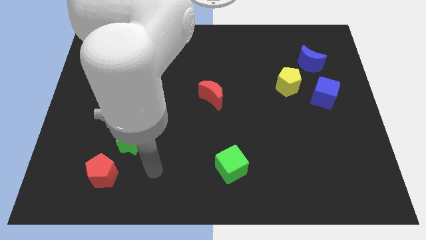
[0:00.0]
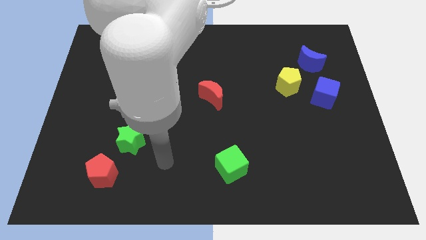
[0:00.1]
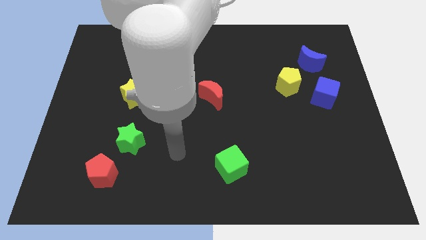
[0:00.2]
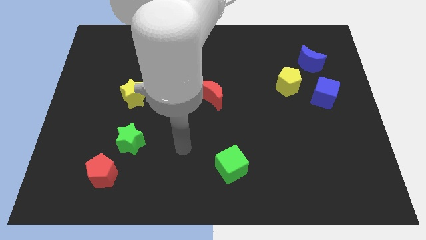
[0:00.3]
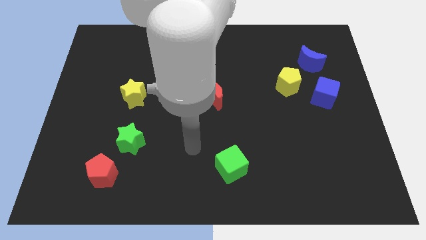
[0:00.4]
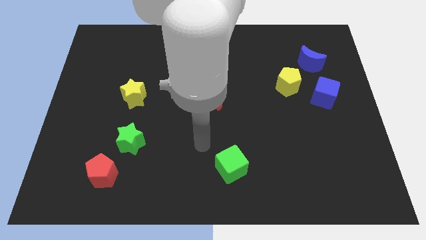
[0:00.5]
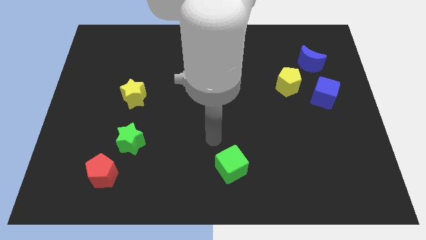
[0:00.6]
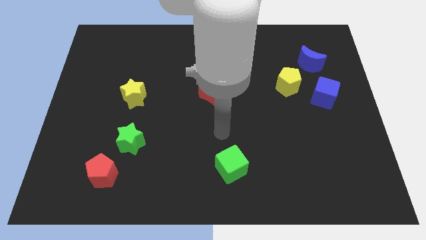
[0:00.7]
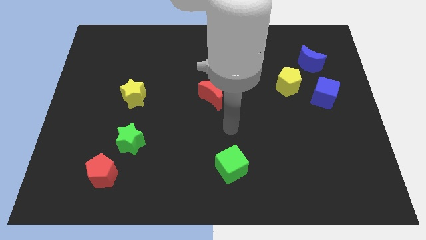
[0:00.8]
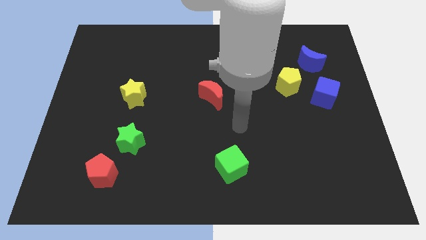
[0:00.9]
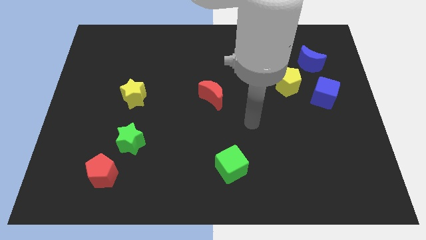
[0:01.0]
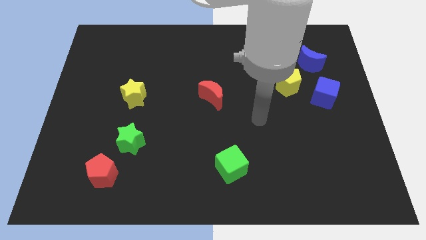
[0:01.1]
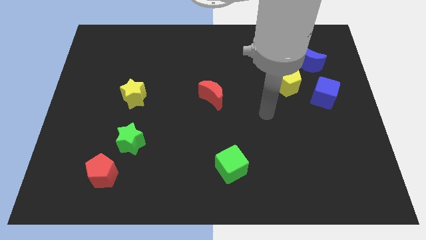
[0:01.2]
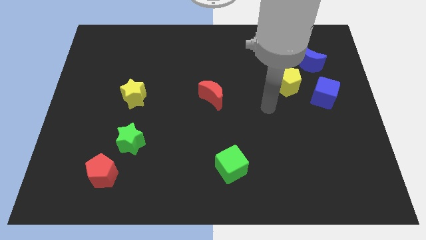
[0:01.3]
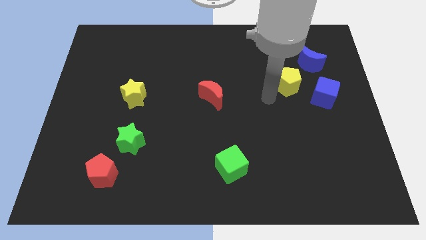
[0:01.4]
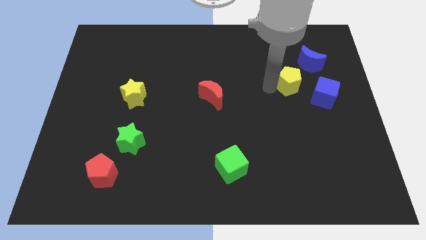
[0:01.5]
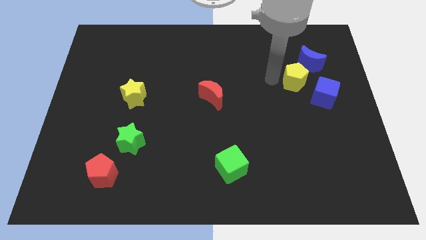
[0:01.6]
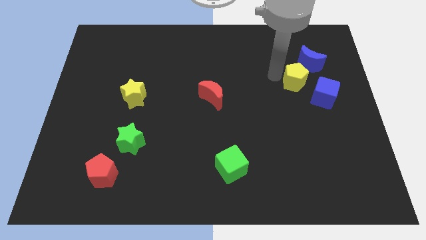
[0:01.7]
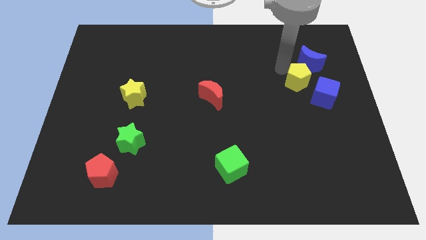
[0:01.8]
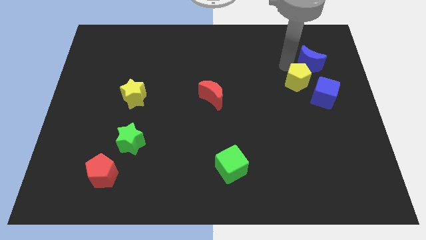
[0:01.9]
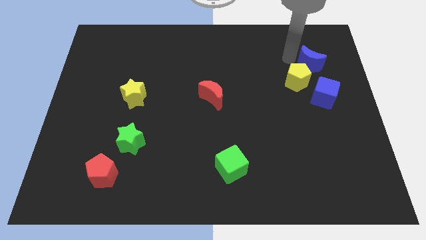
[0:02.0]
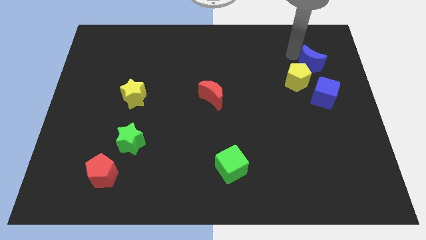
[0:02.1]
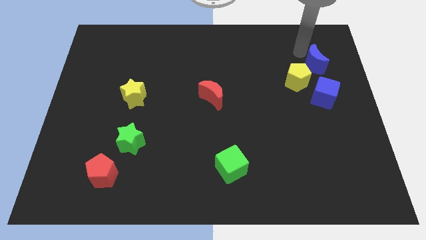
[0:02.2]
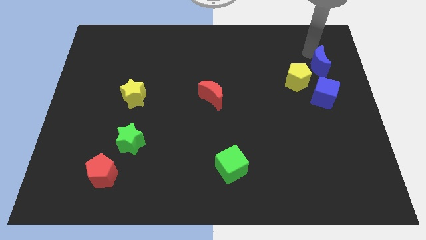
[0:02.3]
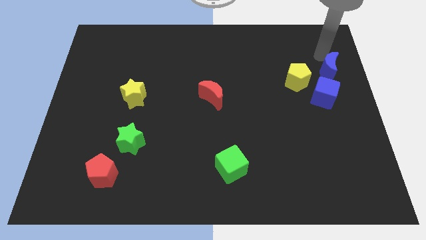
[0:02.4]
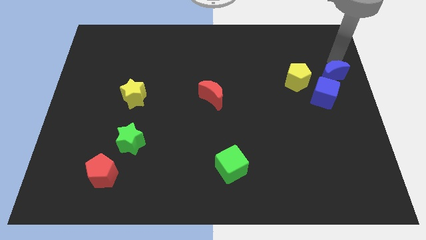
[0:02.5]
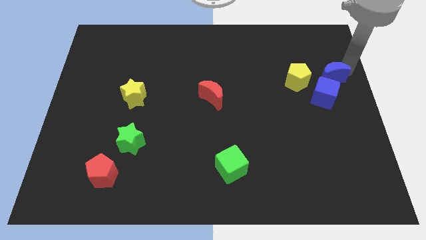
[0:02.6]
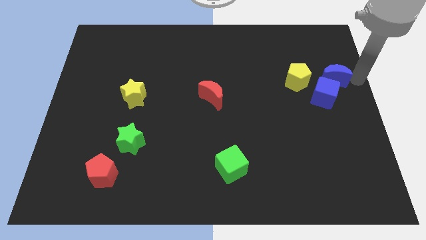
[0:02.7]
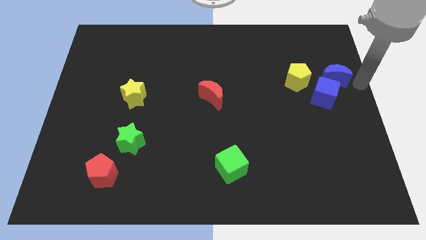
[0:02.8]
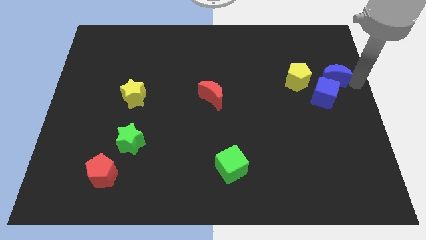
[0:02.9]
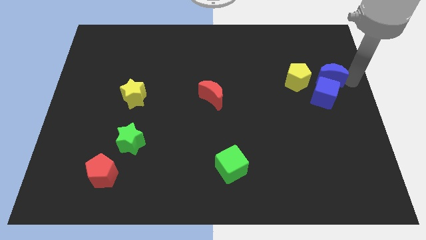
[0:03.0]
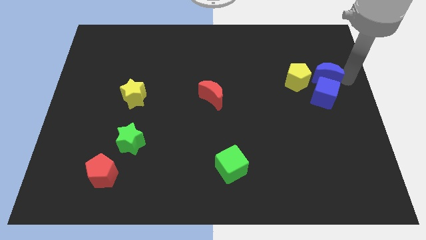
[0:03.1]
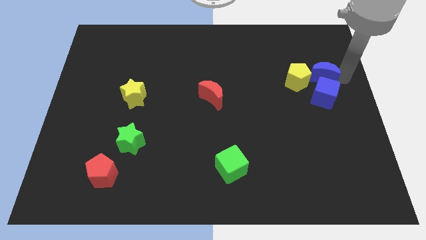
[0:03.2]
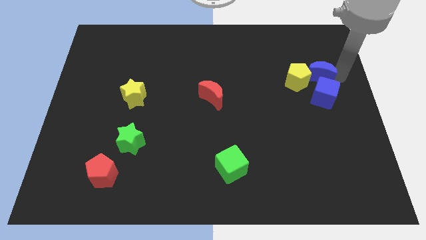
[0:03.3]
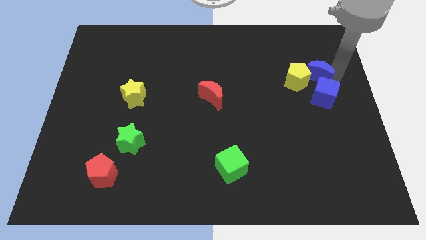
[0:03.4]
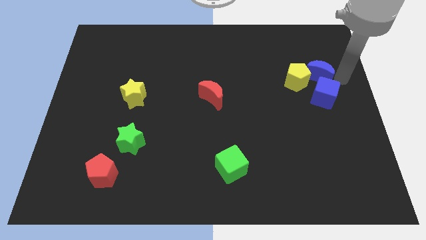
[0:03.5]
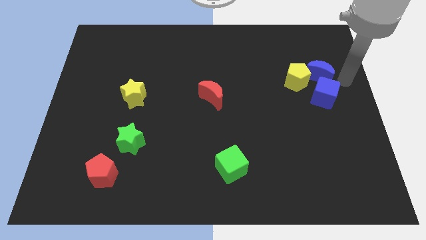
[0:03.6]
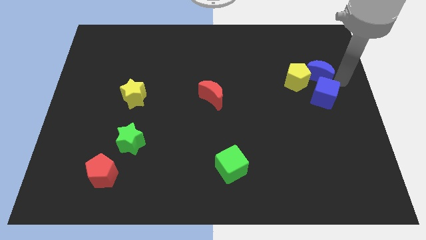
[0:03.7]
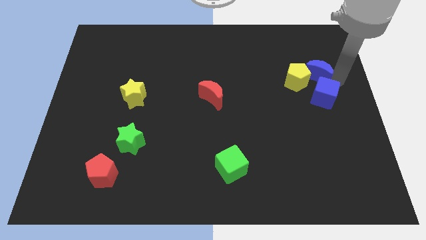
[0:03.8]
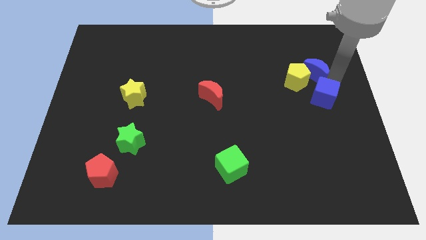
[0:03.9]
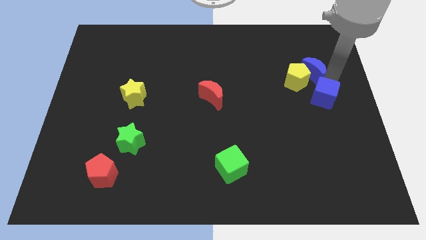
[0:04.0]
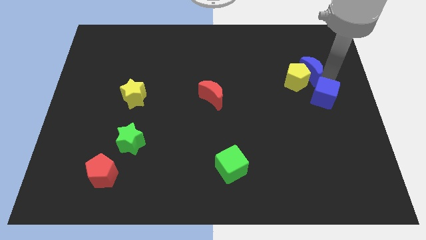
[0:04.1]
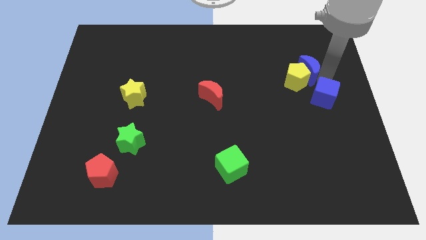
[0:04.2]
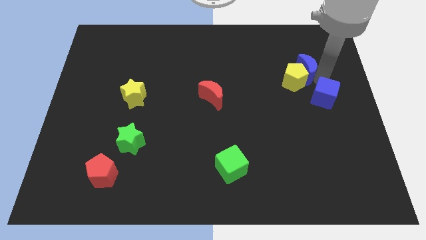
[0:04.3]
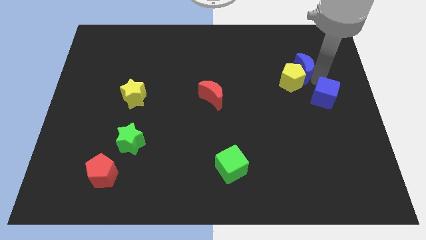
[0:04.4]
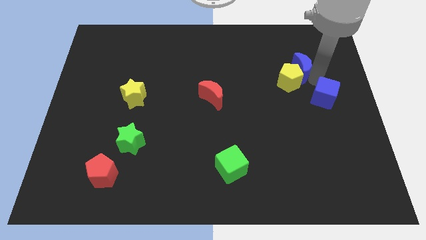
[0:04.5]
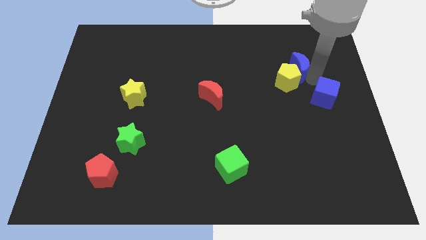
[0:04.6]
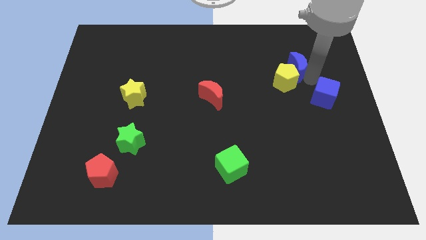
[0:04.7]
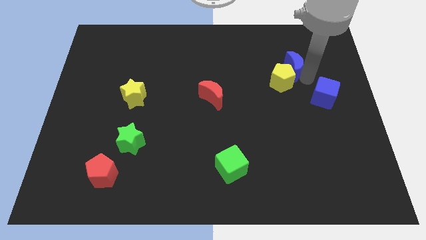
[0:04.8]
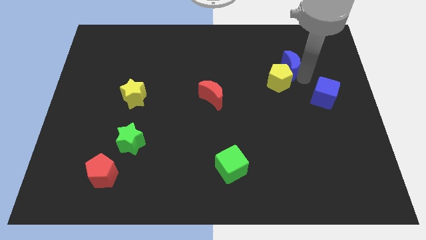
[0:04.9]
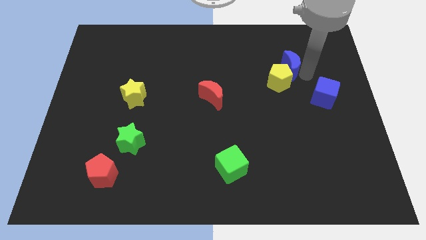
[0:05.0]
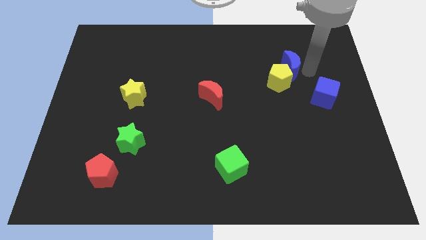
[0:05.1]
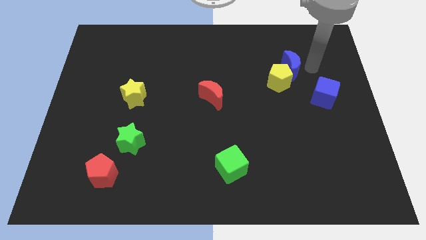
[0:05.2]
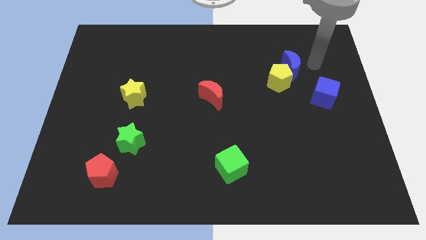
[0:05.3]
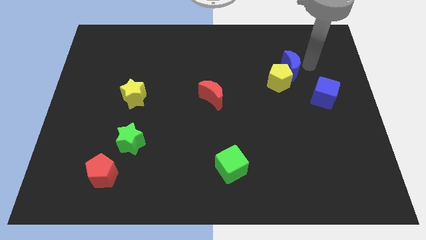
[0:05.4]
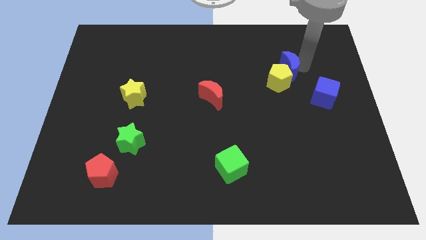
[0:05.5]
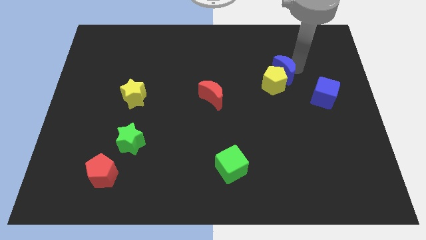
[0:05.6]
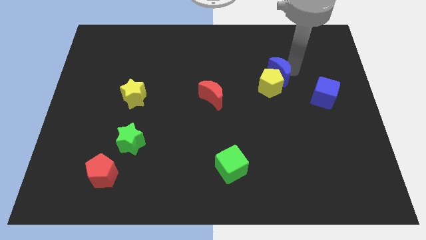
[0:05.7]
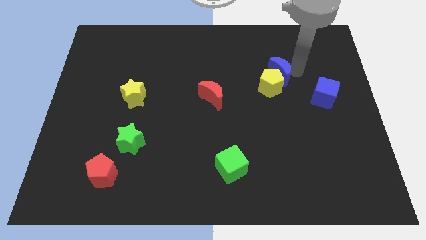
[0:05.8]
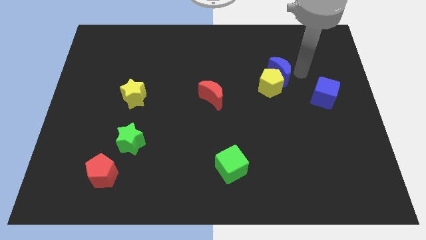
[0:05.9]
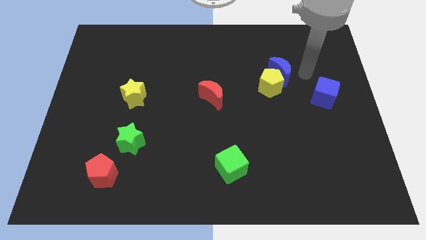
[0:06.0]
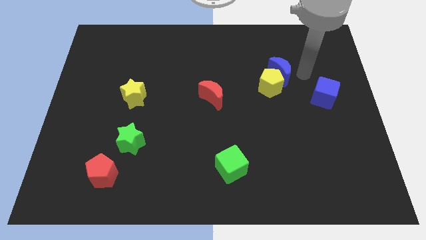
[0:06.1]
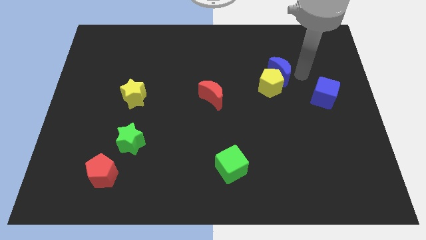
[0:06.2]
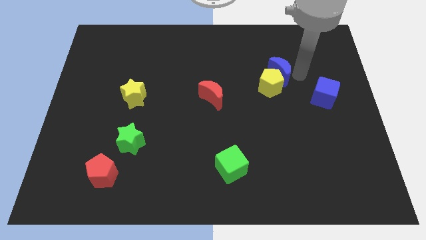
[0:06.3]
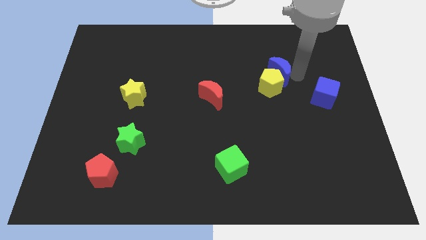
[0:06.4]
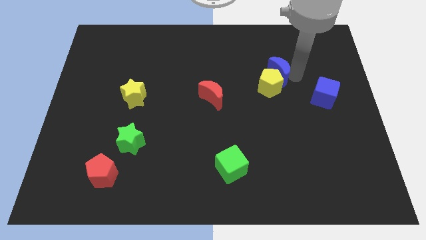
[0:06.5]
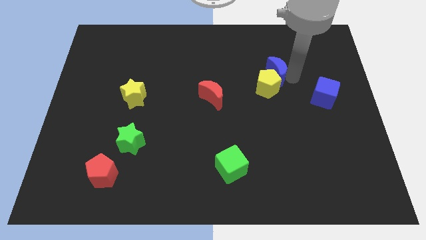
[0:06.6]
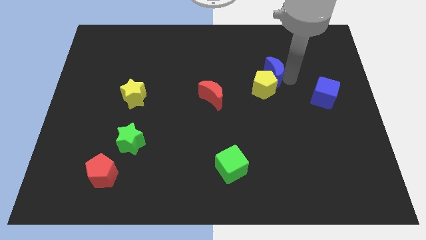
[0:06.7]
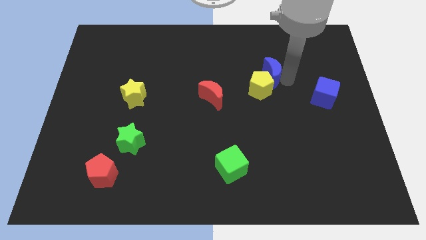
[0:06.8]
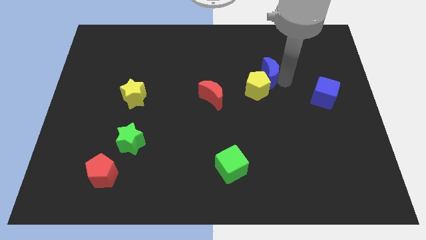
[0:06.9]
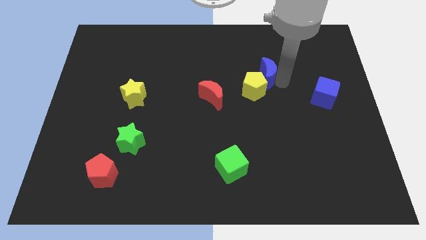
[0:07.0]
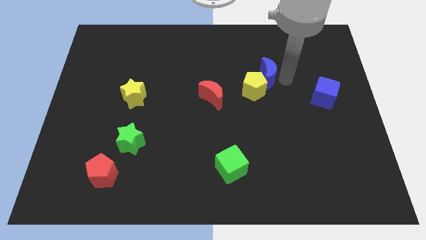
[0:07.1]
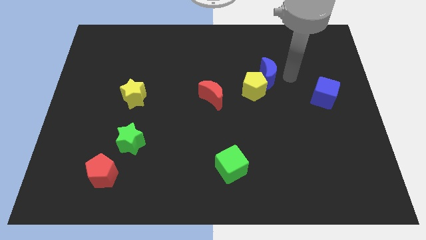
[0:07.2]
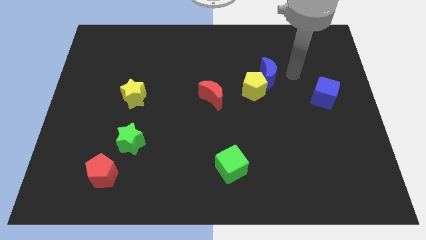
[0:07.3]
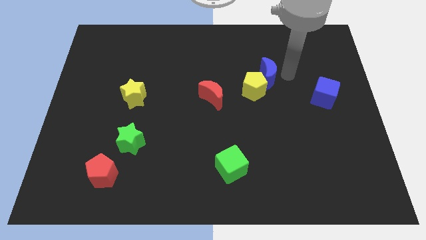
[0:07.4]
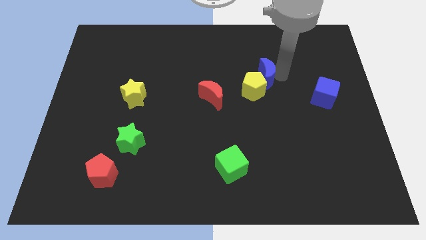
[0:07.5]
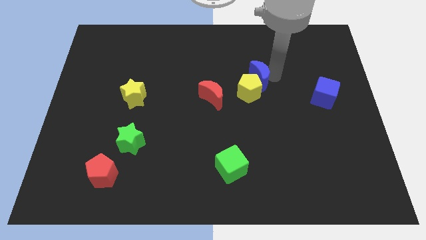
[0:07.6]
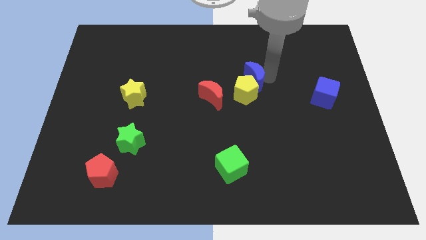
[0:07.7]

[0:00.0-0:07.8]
move the blue moon diagonally up and to the right of the red moon
